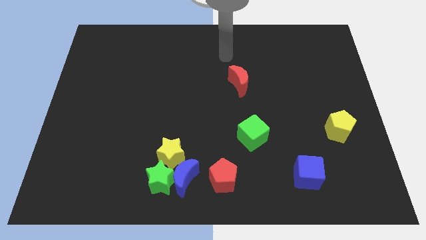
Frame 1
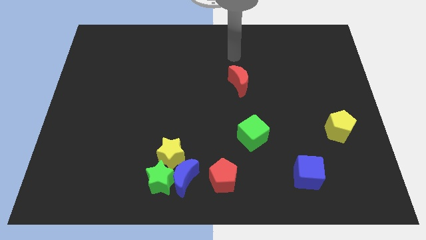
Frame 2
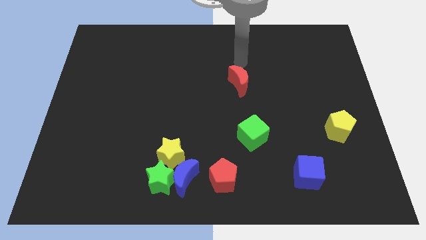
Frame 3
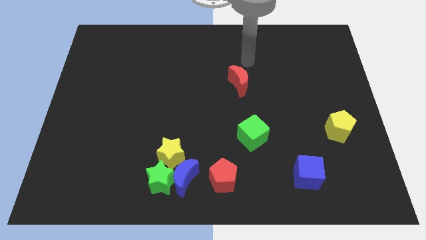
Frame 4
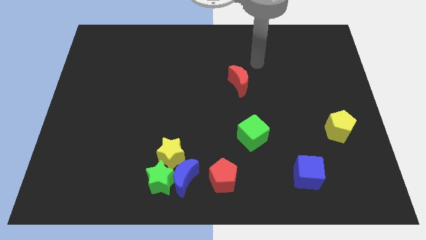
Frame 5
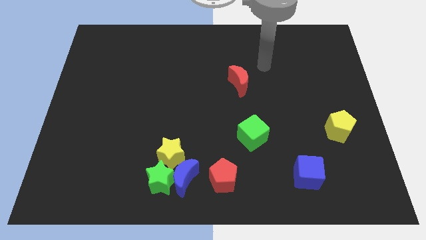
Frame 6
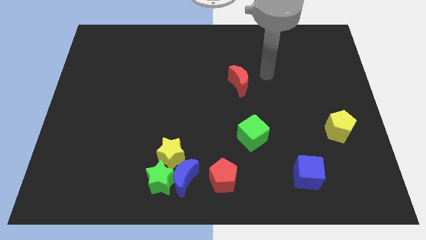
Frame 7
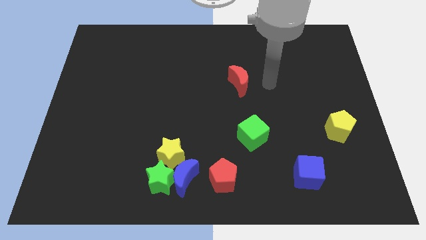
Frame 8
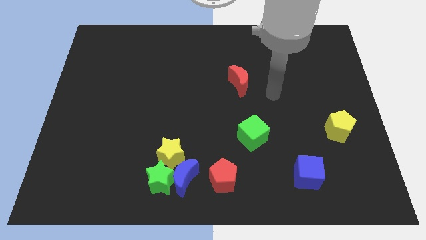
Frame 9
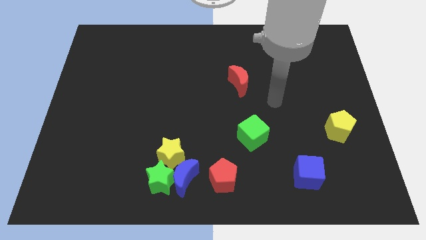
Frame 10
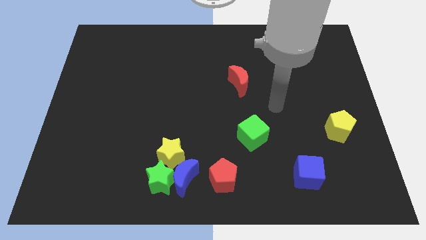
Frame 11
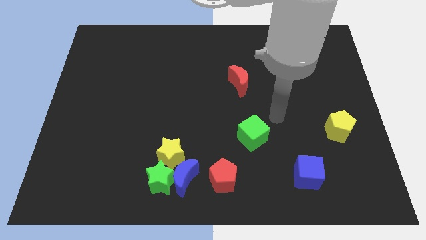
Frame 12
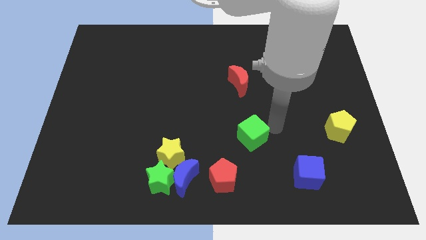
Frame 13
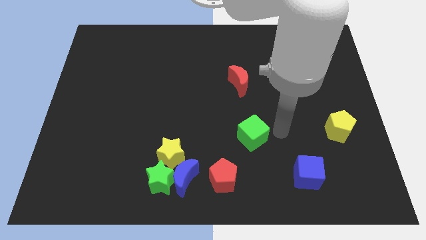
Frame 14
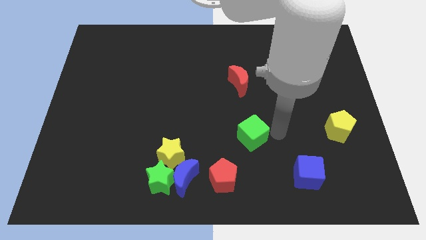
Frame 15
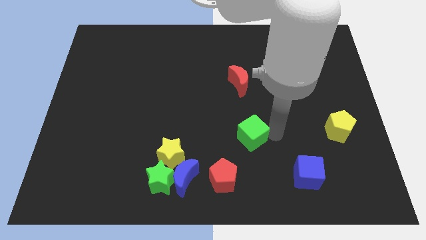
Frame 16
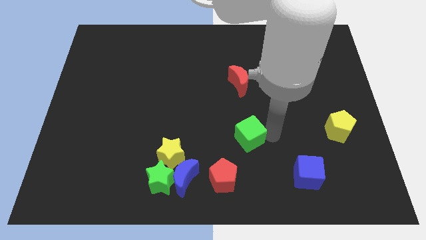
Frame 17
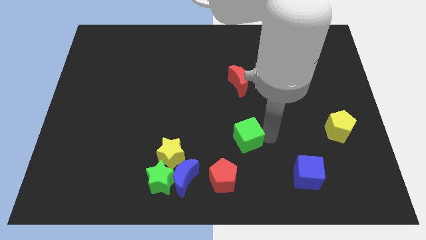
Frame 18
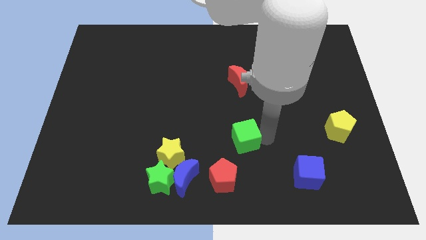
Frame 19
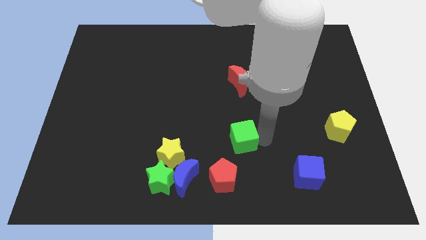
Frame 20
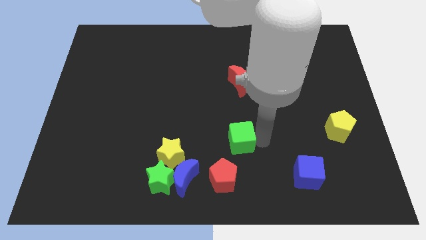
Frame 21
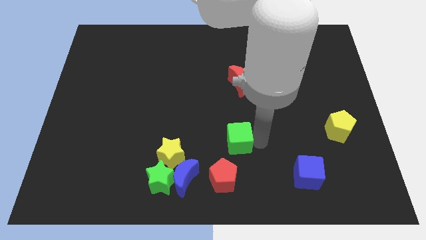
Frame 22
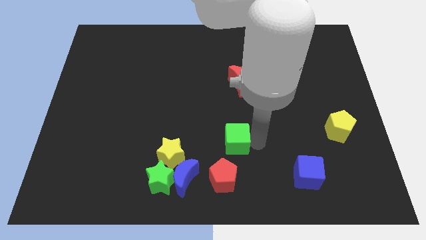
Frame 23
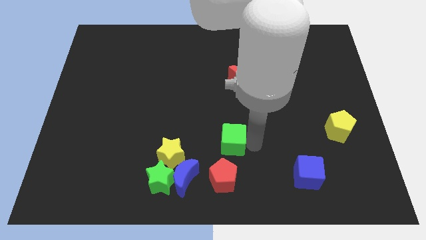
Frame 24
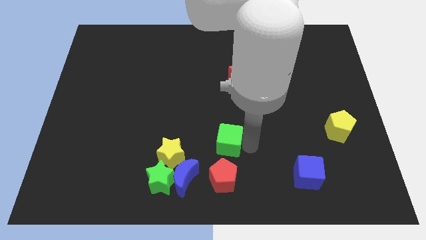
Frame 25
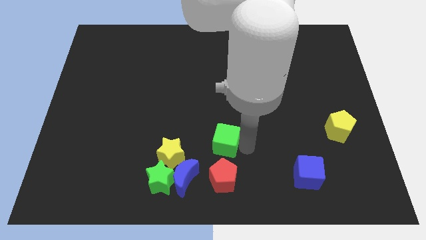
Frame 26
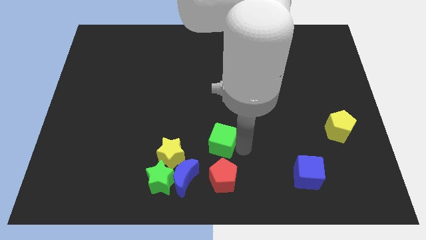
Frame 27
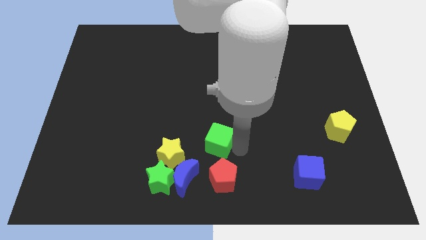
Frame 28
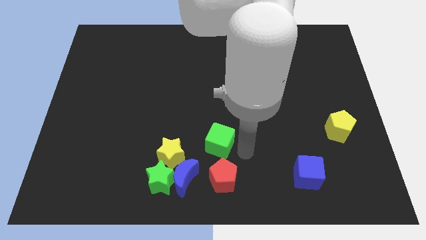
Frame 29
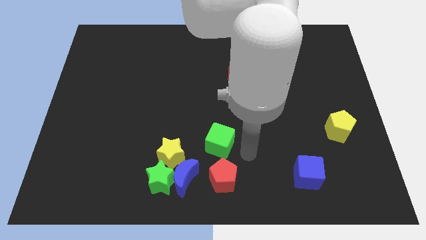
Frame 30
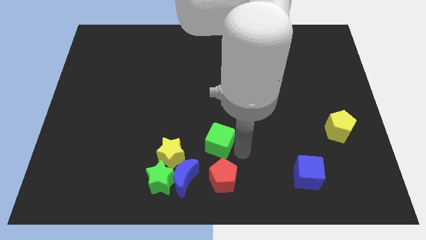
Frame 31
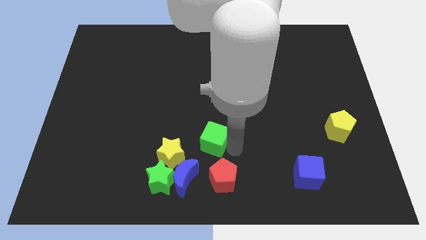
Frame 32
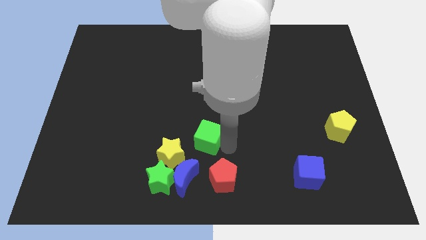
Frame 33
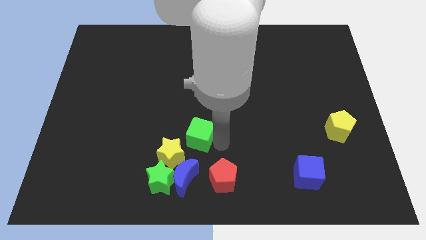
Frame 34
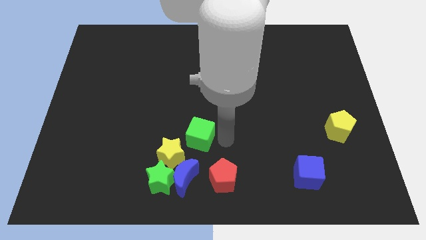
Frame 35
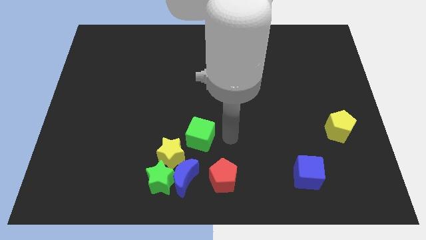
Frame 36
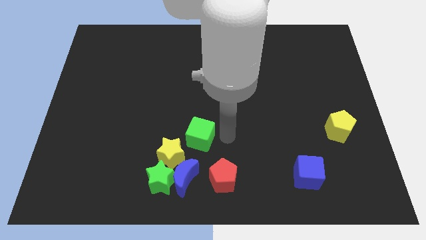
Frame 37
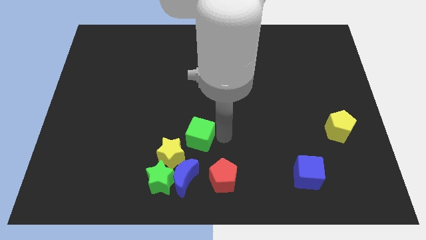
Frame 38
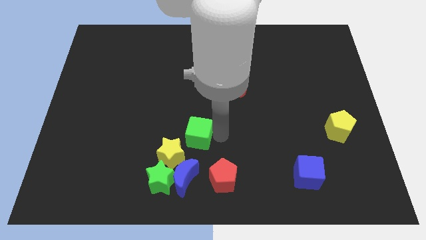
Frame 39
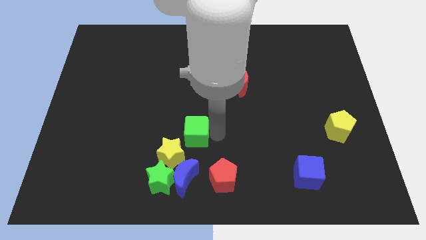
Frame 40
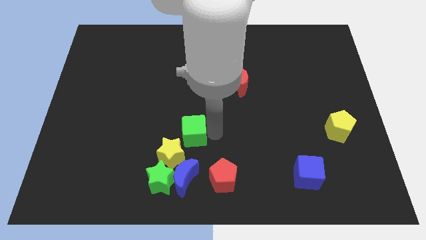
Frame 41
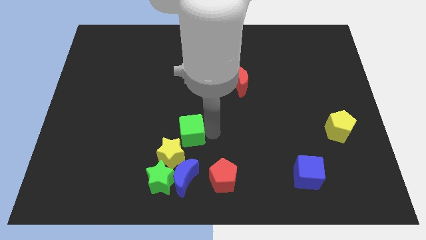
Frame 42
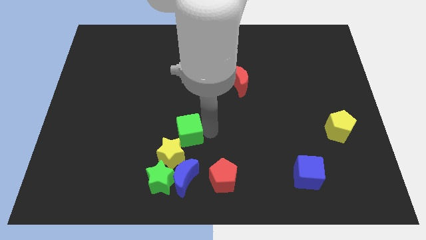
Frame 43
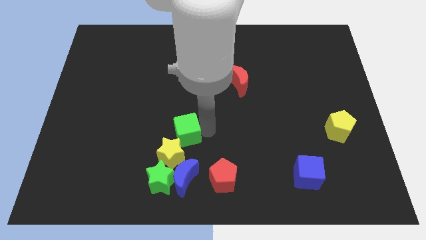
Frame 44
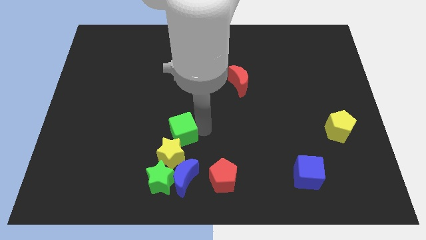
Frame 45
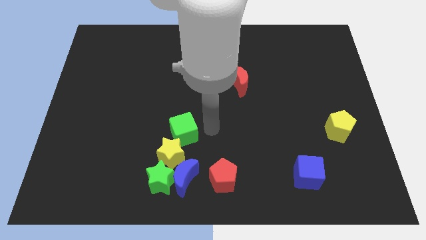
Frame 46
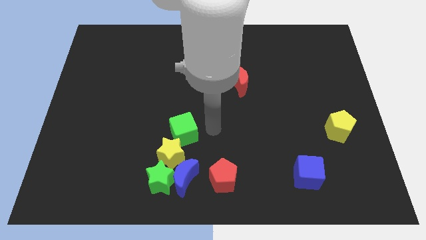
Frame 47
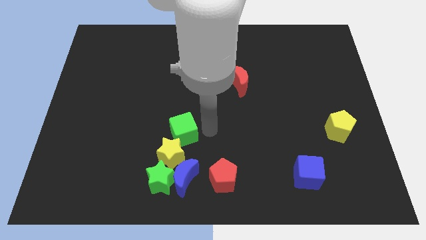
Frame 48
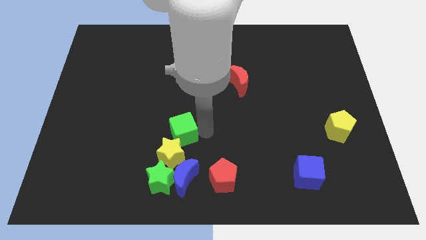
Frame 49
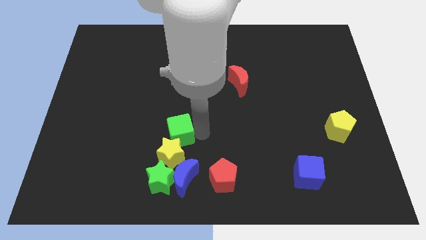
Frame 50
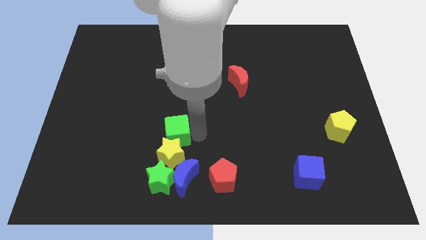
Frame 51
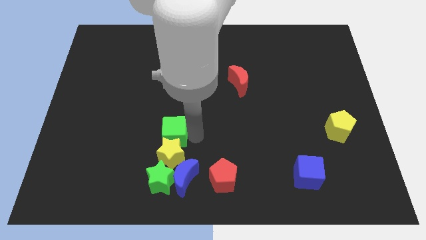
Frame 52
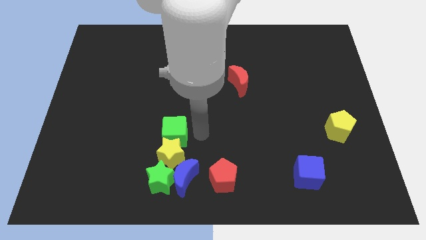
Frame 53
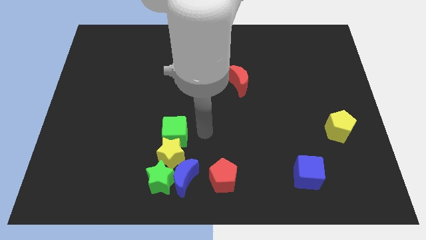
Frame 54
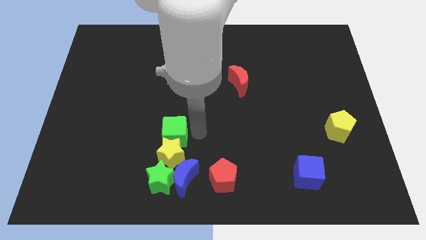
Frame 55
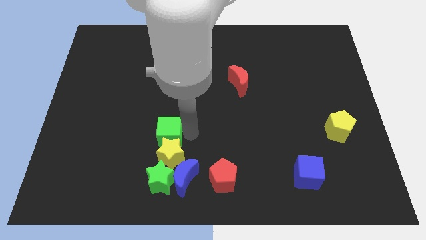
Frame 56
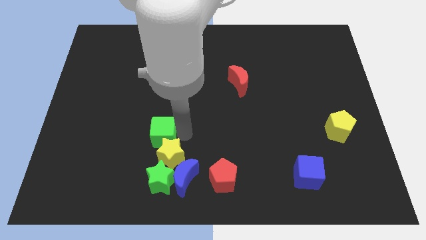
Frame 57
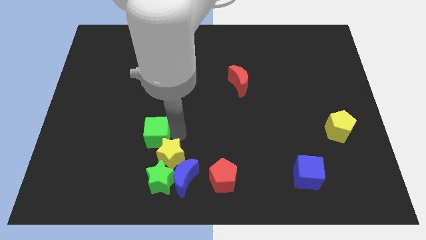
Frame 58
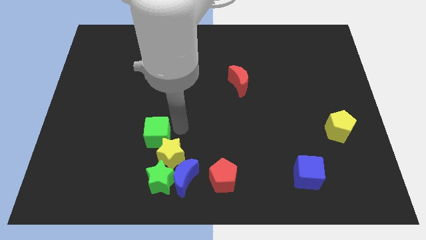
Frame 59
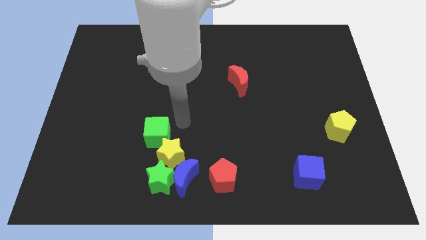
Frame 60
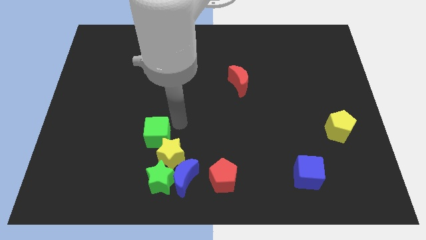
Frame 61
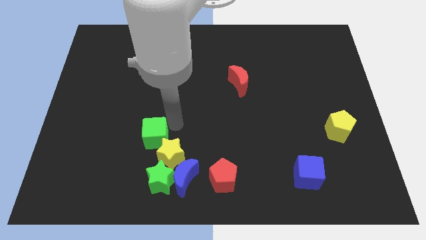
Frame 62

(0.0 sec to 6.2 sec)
put the green cube left of the yellow star

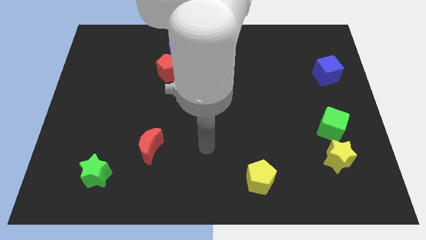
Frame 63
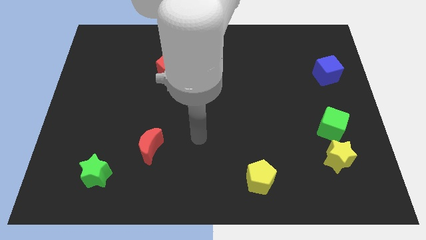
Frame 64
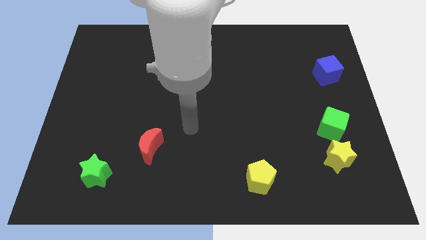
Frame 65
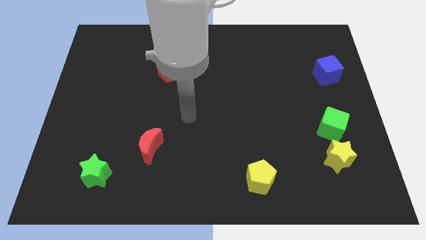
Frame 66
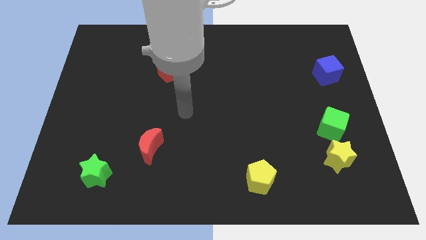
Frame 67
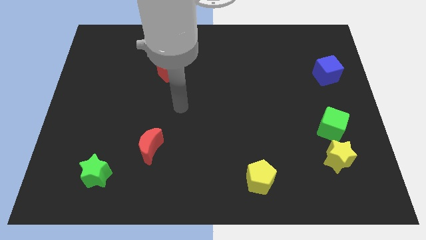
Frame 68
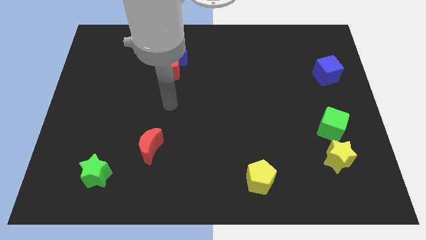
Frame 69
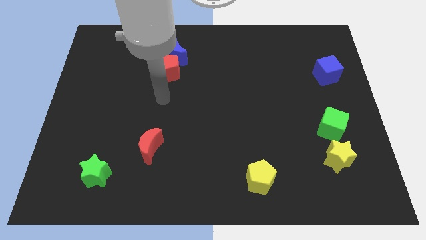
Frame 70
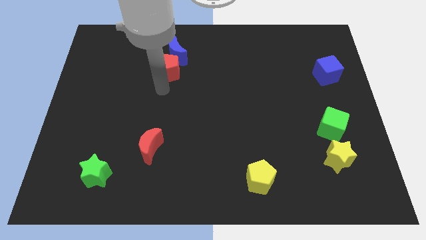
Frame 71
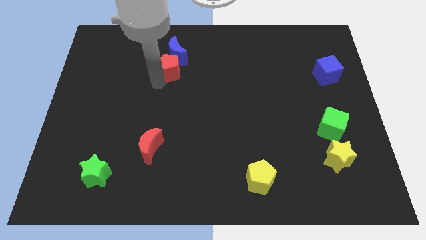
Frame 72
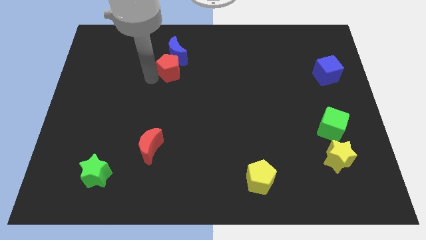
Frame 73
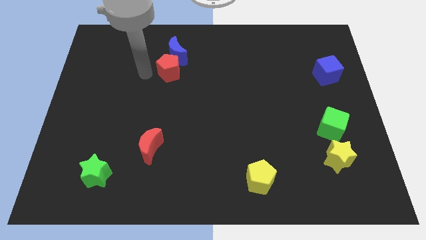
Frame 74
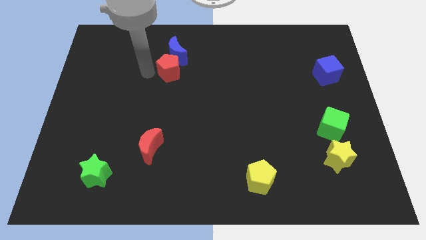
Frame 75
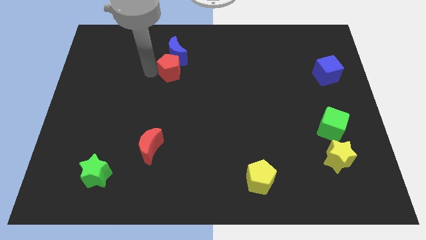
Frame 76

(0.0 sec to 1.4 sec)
push the red pentagon to the bottom right side of the blue moon

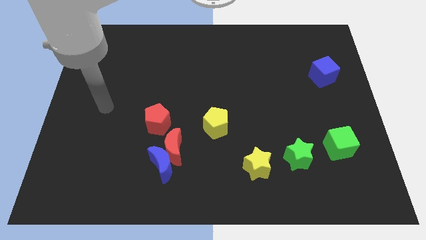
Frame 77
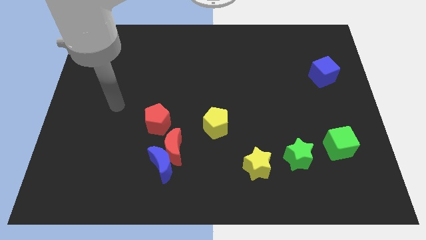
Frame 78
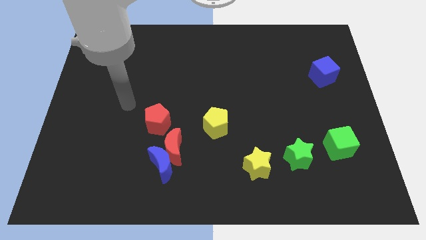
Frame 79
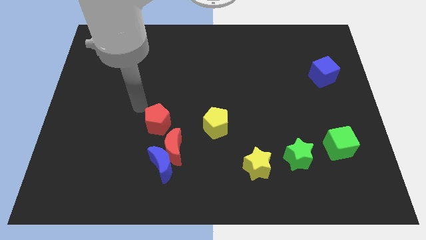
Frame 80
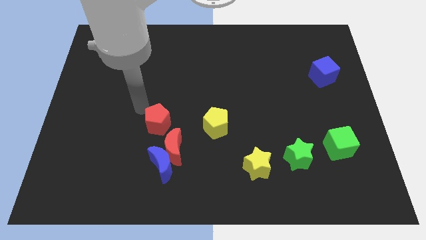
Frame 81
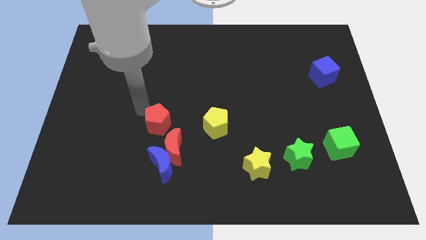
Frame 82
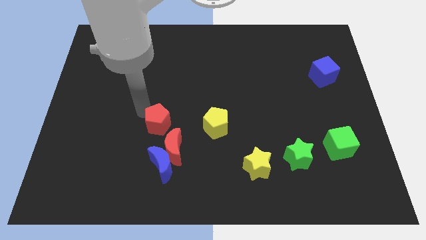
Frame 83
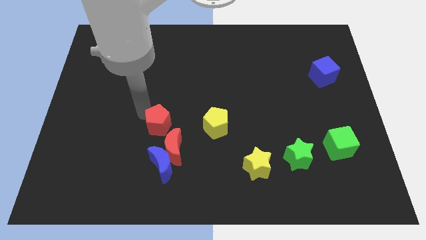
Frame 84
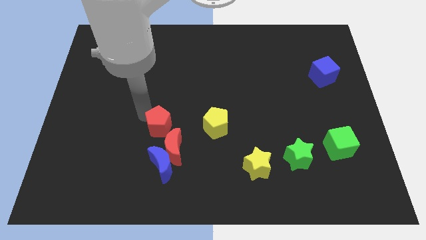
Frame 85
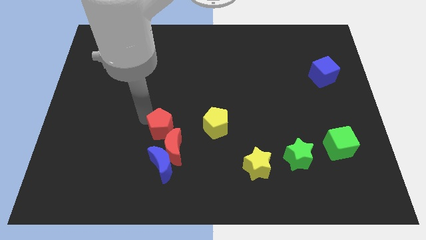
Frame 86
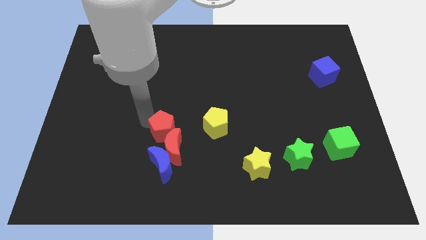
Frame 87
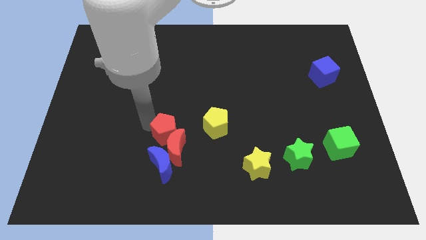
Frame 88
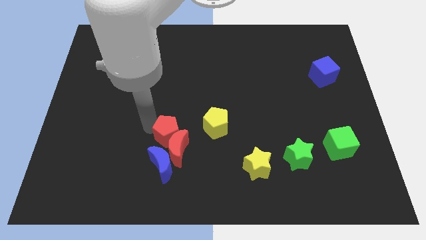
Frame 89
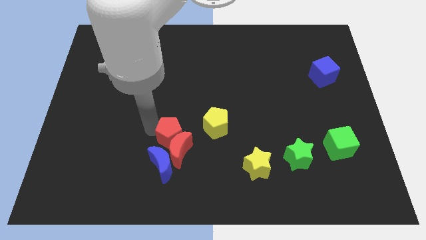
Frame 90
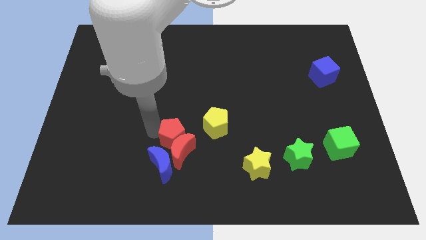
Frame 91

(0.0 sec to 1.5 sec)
move the red pentagon diagonally down and to the left of the yellow pentagon
